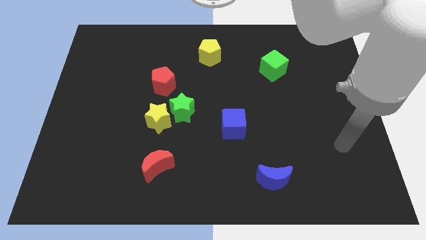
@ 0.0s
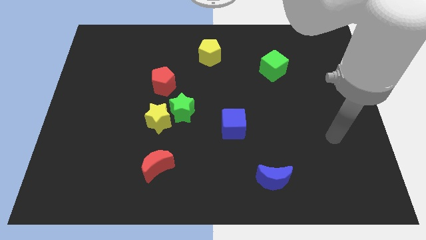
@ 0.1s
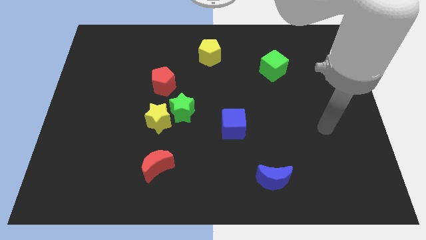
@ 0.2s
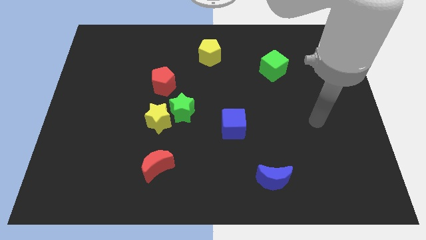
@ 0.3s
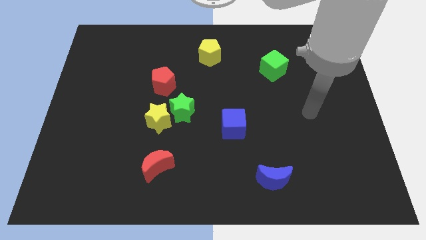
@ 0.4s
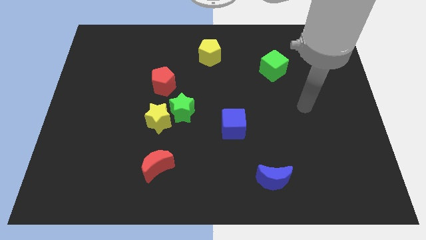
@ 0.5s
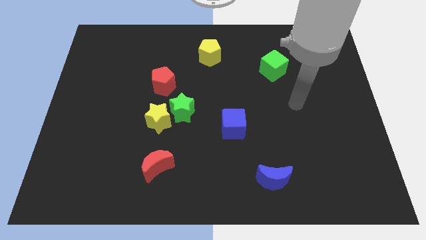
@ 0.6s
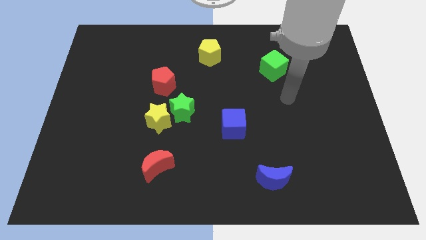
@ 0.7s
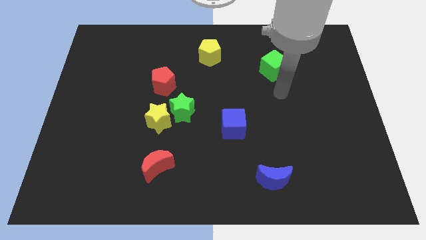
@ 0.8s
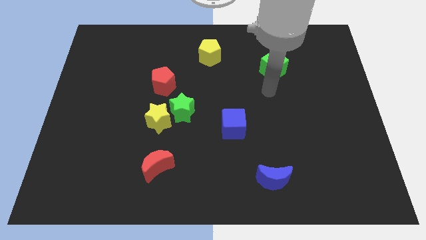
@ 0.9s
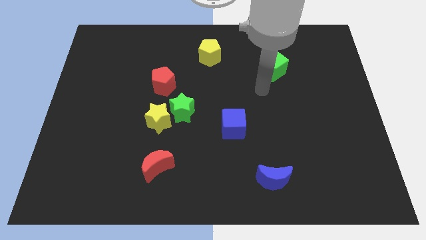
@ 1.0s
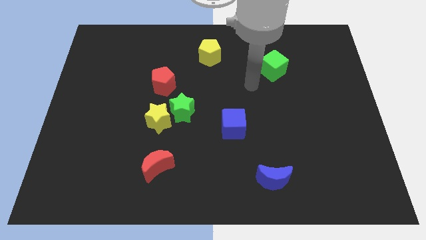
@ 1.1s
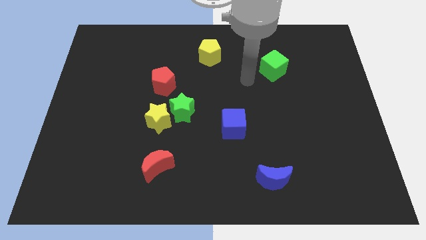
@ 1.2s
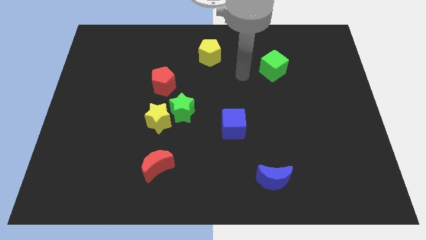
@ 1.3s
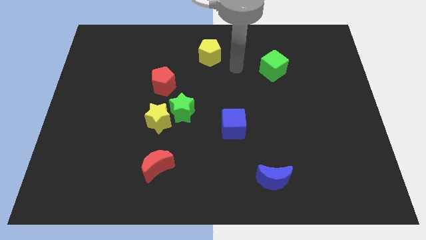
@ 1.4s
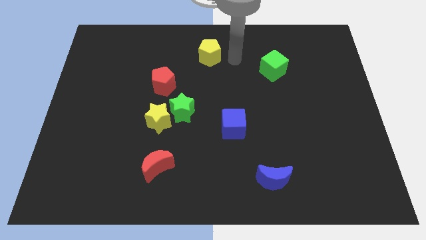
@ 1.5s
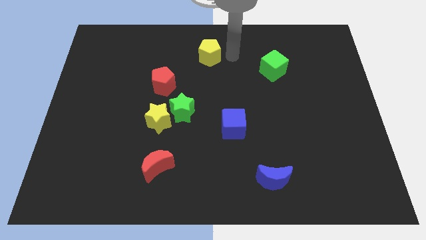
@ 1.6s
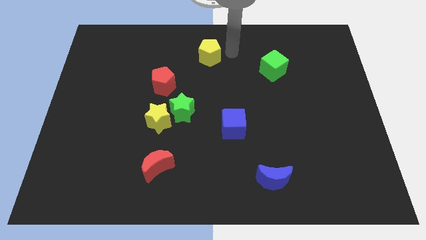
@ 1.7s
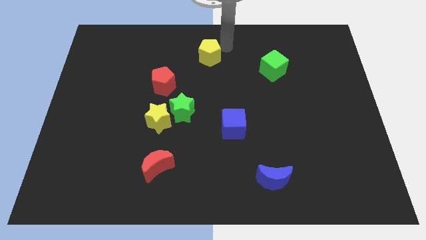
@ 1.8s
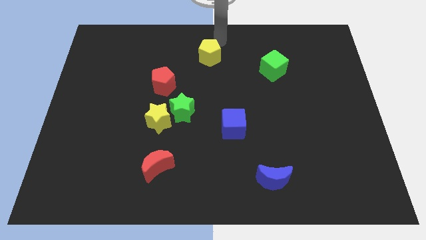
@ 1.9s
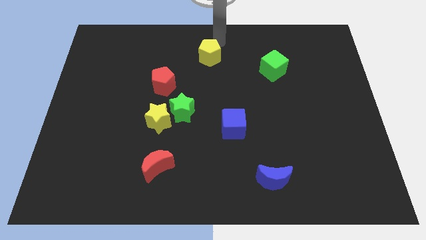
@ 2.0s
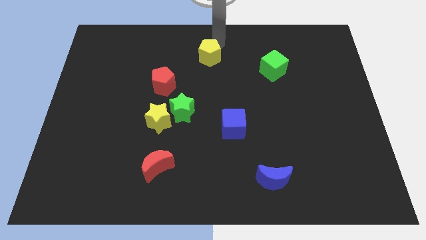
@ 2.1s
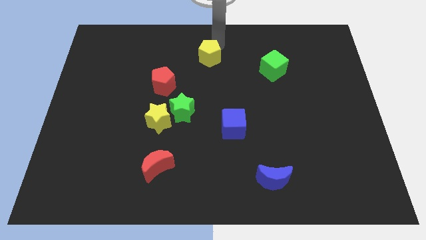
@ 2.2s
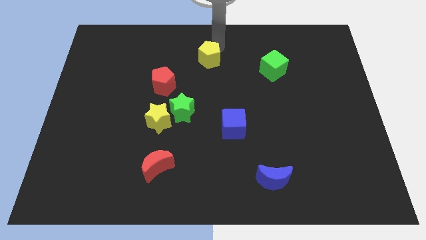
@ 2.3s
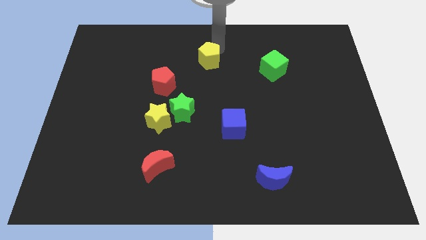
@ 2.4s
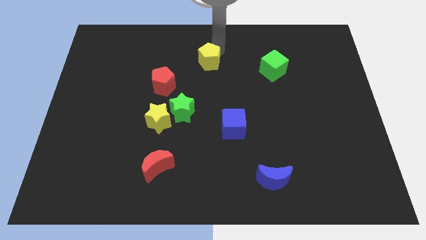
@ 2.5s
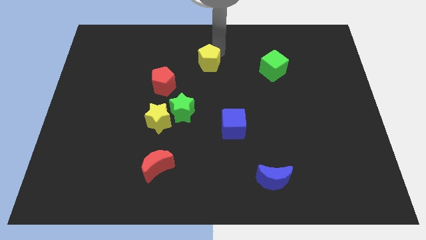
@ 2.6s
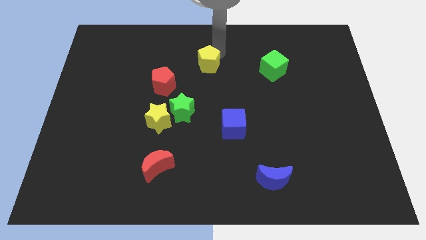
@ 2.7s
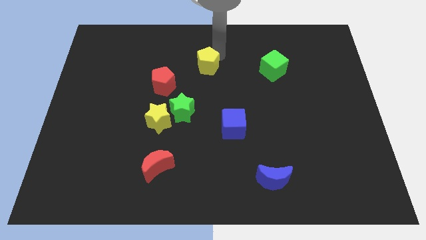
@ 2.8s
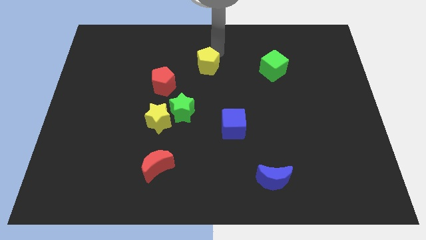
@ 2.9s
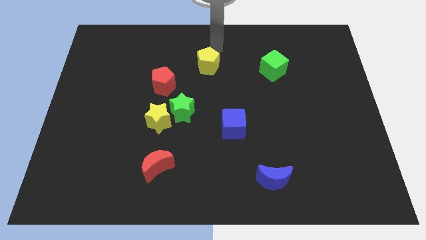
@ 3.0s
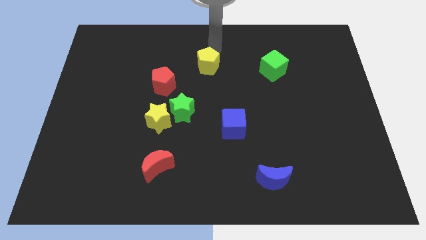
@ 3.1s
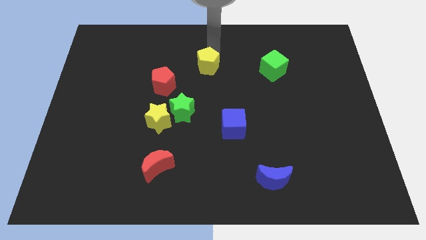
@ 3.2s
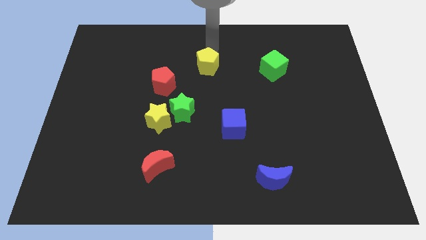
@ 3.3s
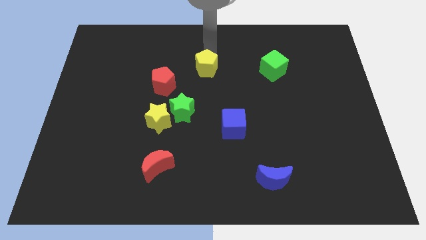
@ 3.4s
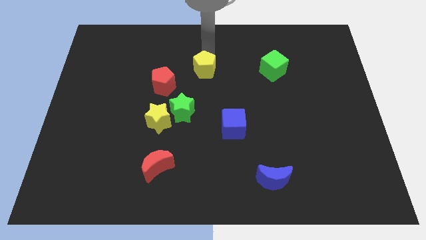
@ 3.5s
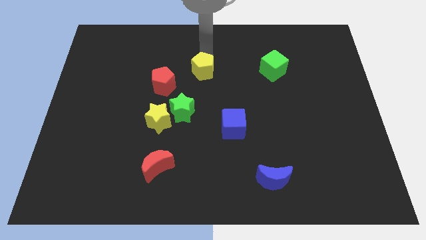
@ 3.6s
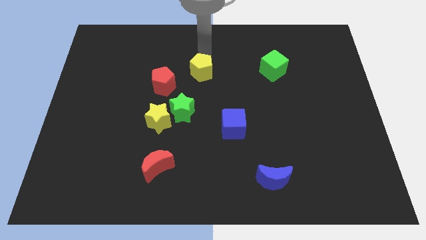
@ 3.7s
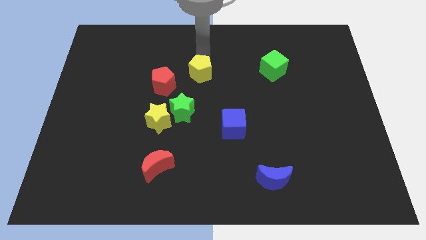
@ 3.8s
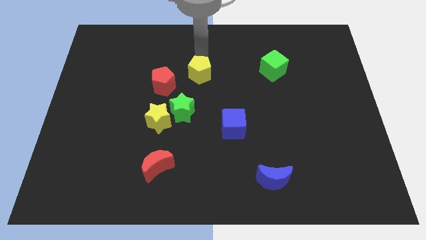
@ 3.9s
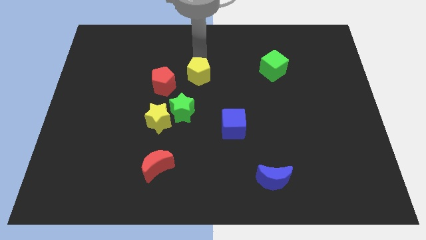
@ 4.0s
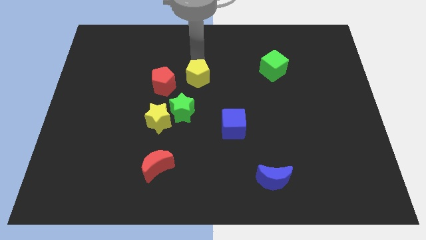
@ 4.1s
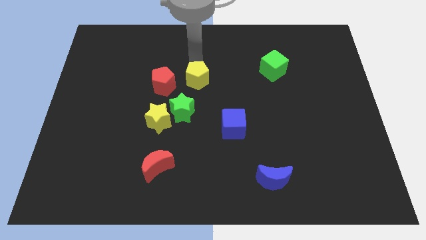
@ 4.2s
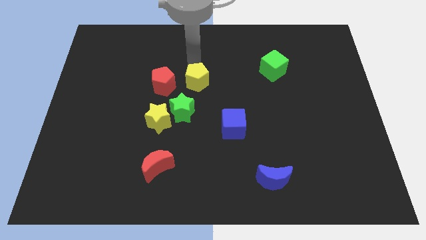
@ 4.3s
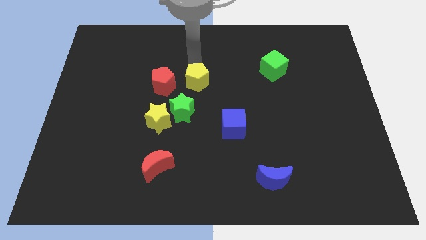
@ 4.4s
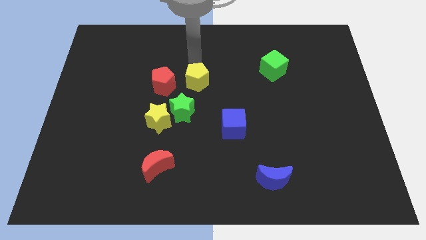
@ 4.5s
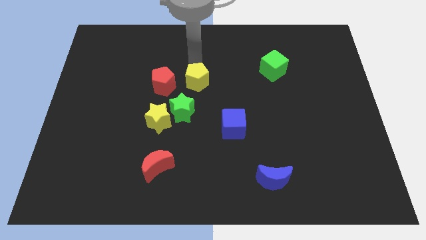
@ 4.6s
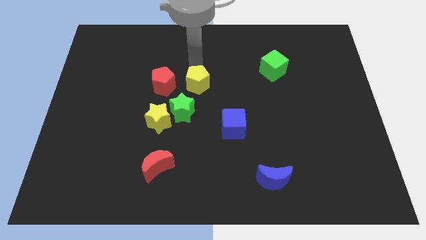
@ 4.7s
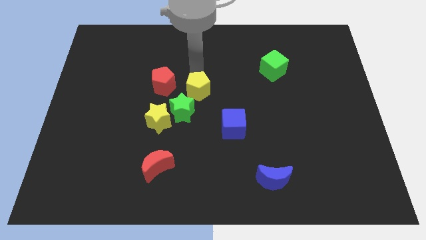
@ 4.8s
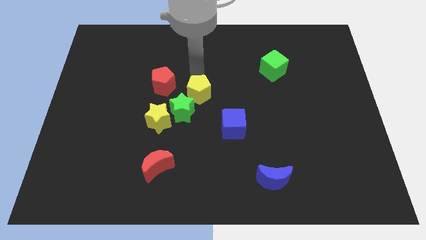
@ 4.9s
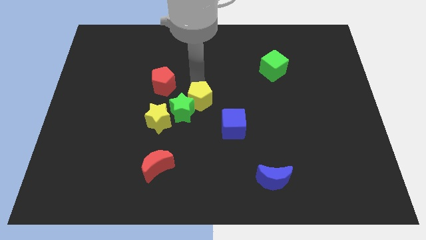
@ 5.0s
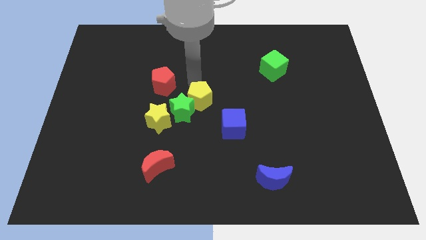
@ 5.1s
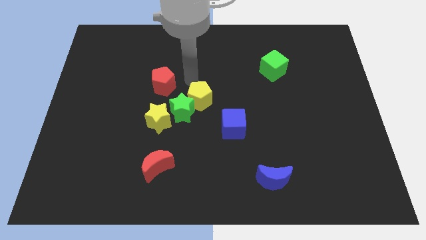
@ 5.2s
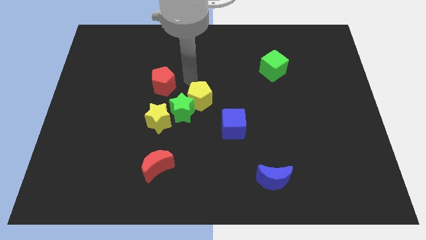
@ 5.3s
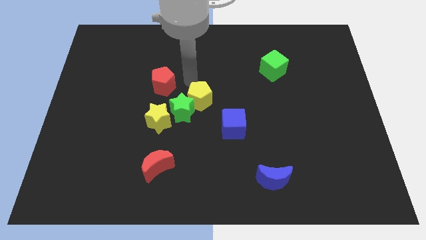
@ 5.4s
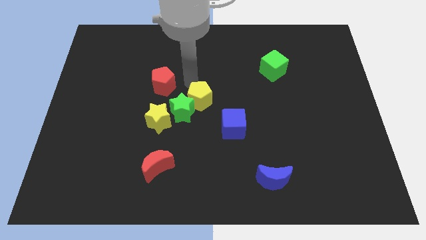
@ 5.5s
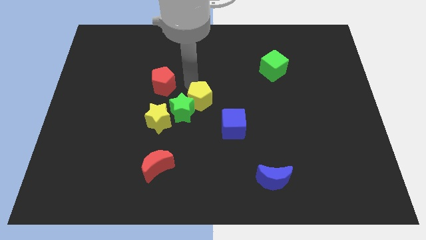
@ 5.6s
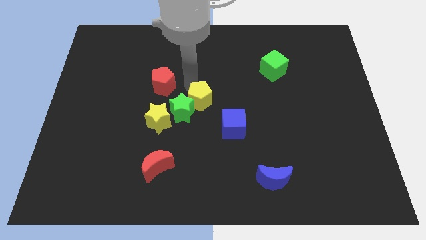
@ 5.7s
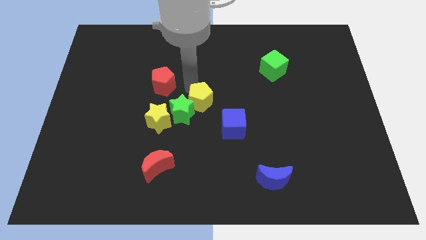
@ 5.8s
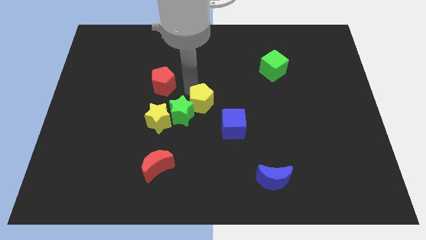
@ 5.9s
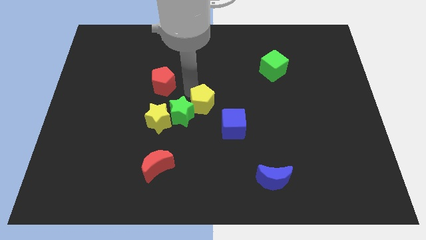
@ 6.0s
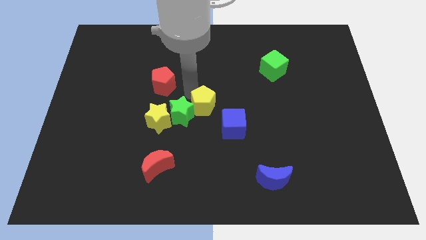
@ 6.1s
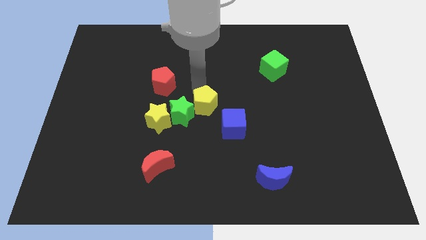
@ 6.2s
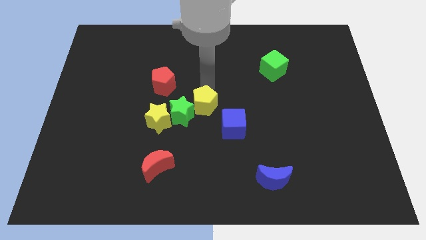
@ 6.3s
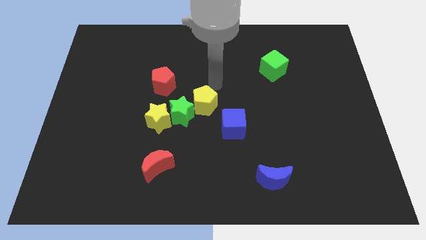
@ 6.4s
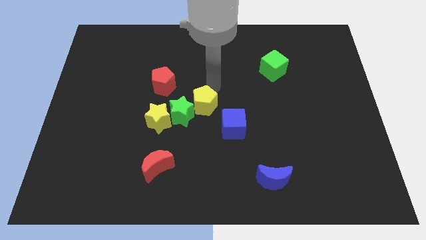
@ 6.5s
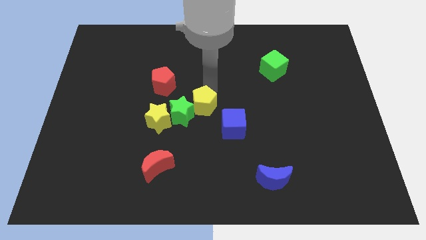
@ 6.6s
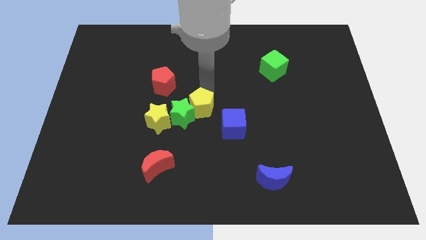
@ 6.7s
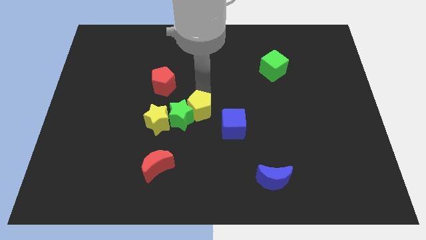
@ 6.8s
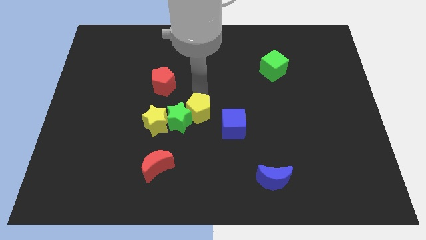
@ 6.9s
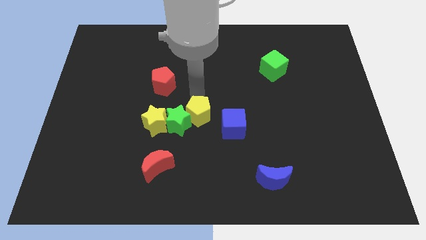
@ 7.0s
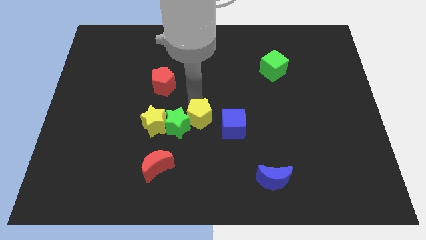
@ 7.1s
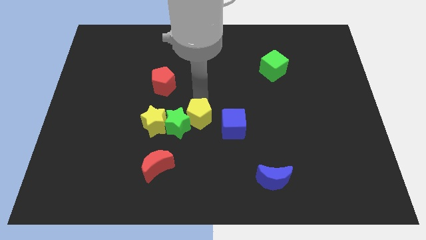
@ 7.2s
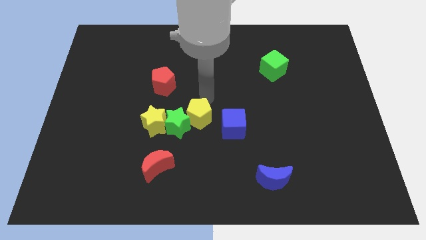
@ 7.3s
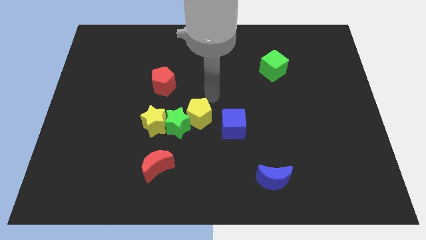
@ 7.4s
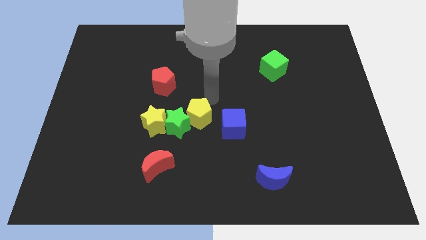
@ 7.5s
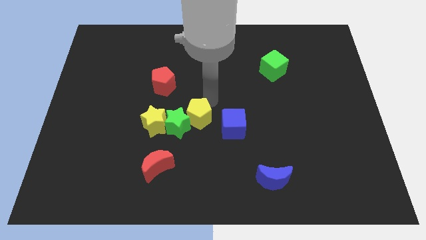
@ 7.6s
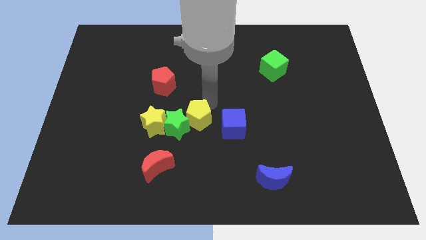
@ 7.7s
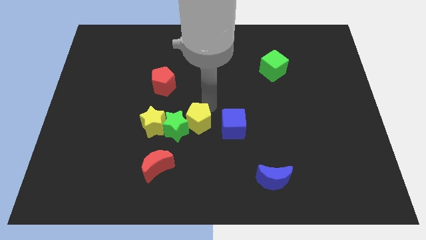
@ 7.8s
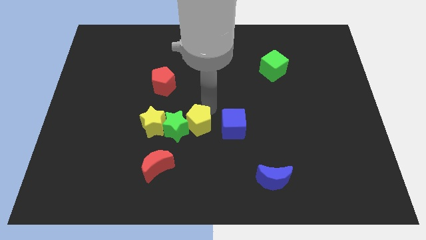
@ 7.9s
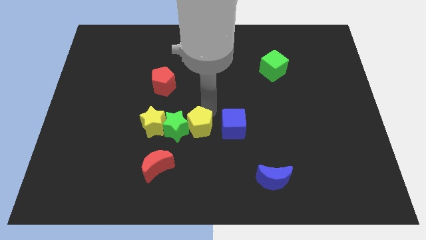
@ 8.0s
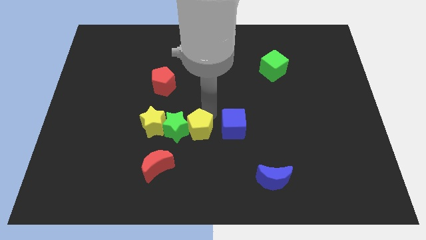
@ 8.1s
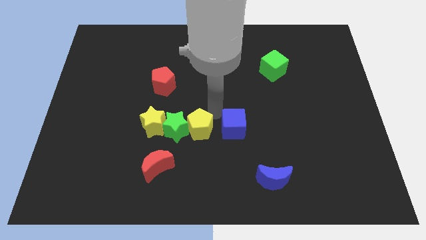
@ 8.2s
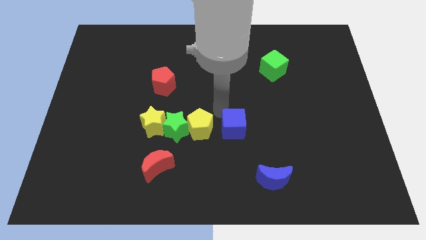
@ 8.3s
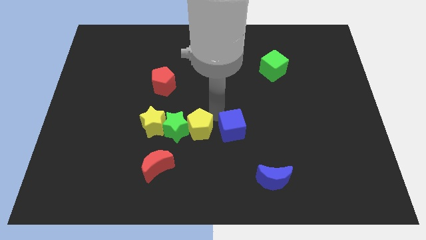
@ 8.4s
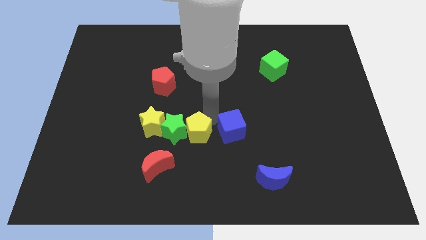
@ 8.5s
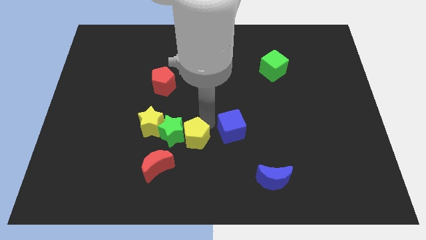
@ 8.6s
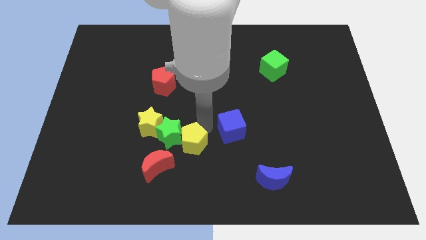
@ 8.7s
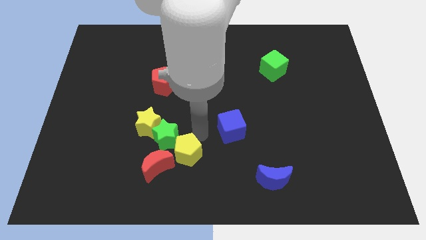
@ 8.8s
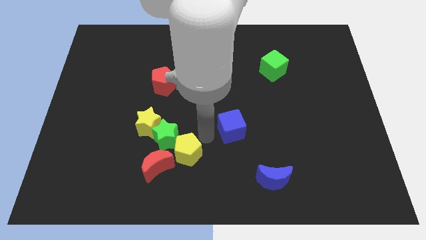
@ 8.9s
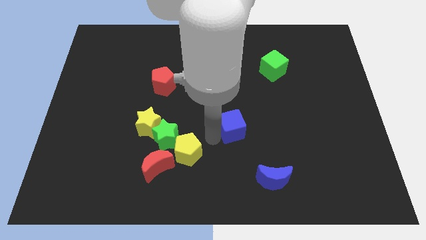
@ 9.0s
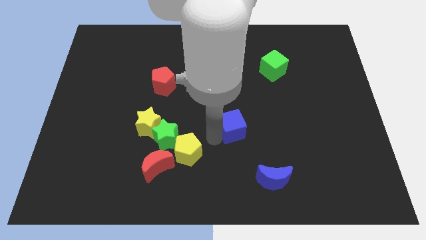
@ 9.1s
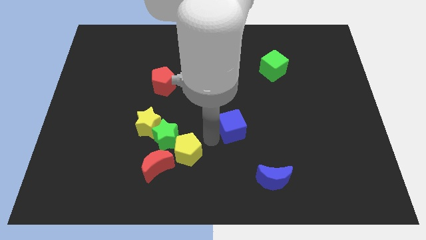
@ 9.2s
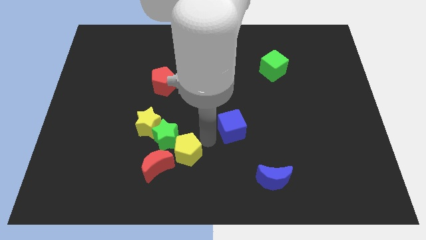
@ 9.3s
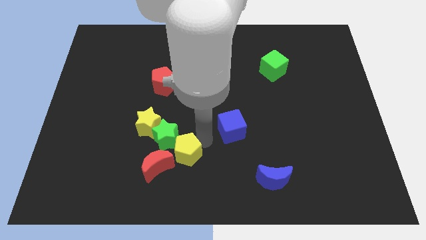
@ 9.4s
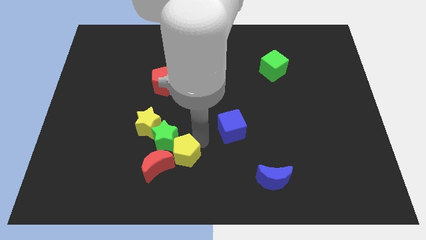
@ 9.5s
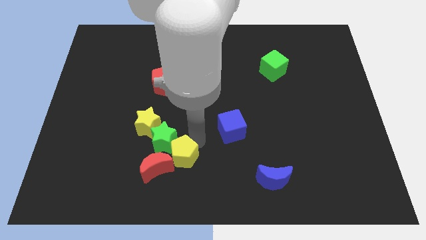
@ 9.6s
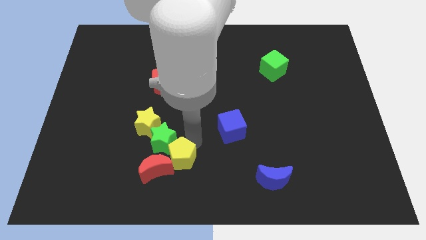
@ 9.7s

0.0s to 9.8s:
slide the yellow pentagon towards the red moon
